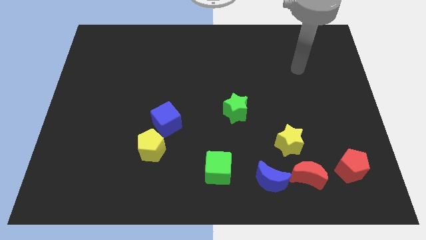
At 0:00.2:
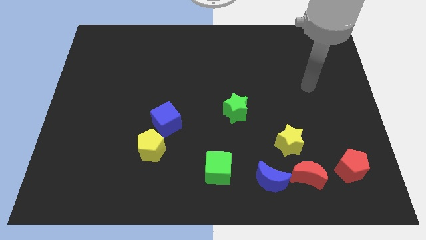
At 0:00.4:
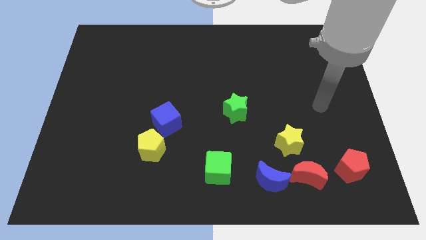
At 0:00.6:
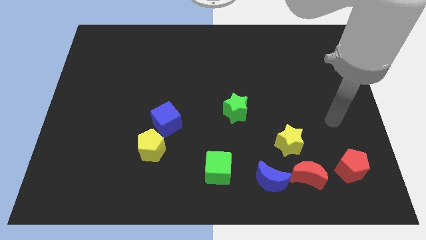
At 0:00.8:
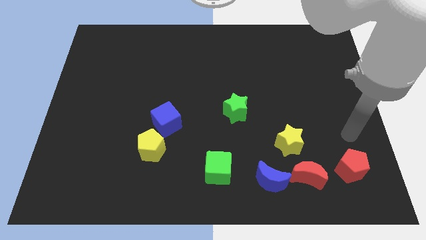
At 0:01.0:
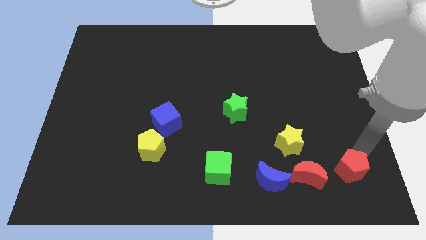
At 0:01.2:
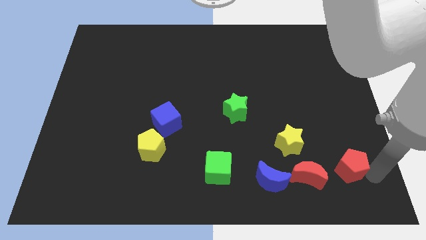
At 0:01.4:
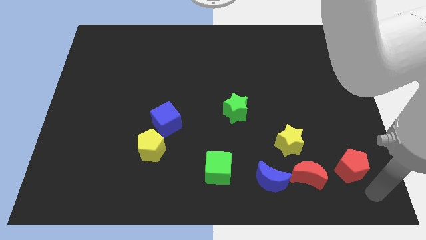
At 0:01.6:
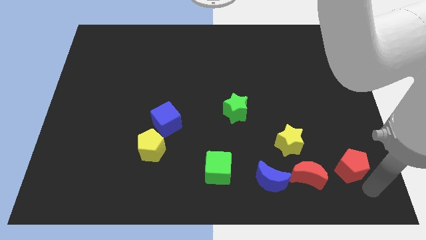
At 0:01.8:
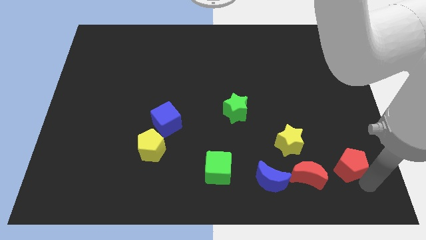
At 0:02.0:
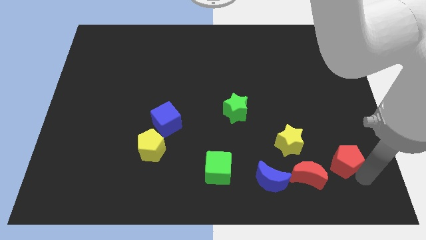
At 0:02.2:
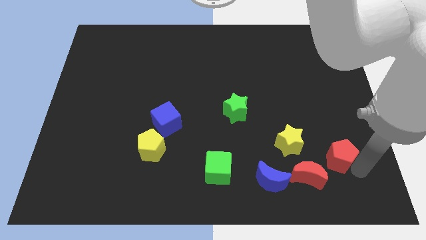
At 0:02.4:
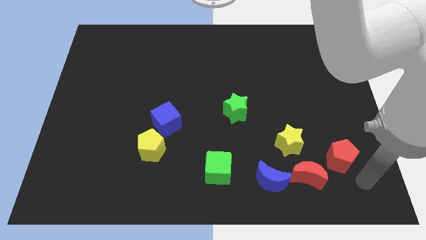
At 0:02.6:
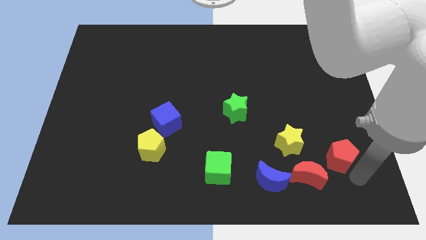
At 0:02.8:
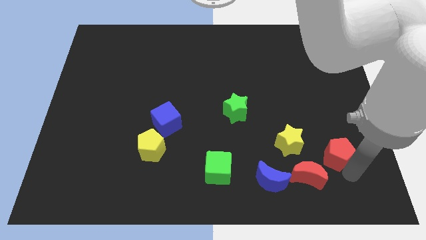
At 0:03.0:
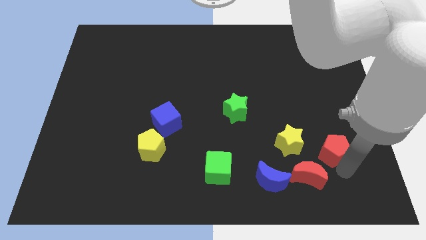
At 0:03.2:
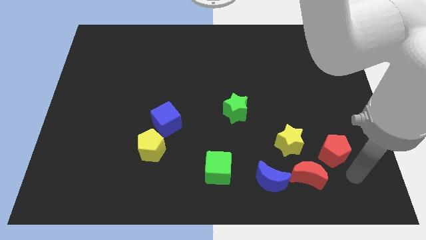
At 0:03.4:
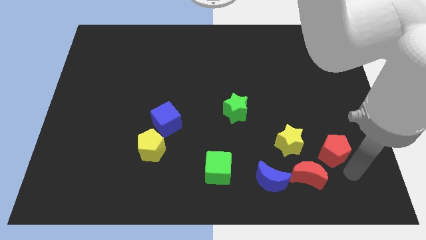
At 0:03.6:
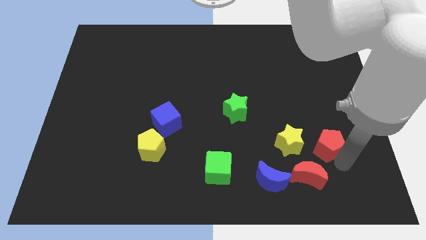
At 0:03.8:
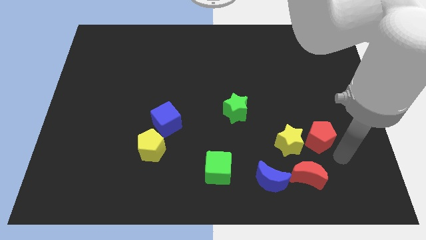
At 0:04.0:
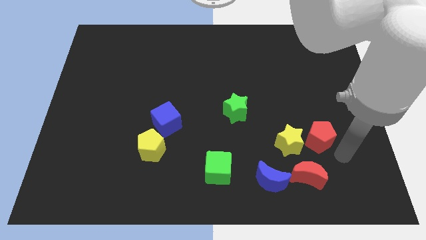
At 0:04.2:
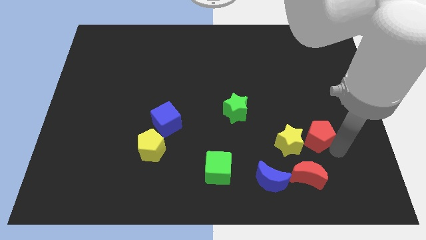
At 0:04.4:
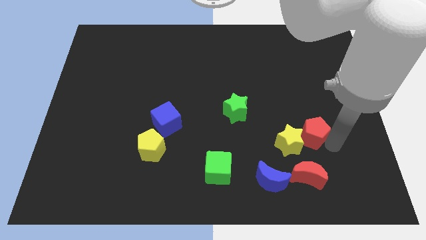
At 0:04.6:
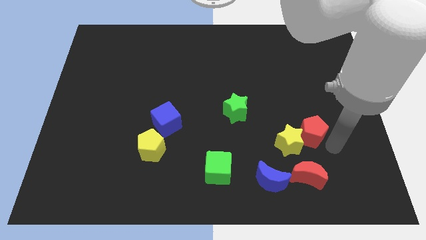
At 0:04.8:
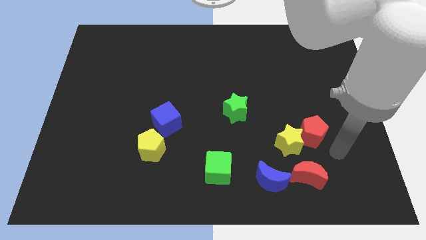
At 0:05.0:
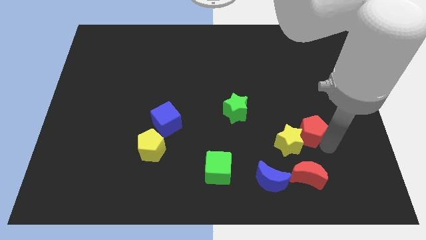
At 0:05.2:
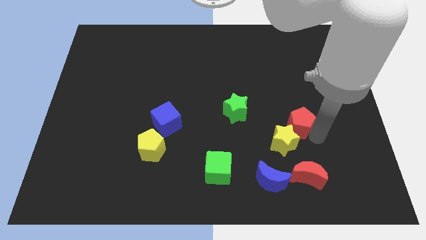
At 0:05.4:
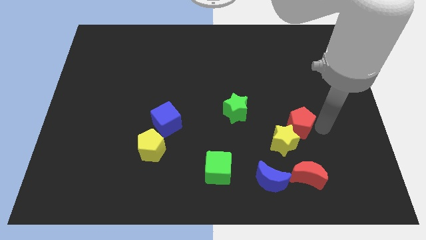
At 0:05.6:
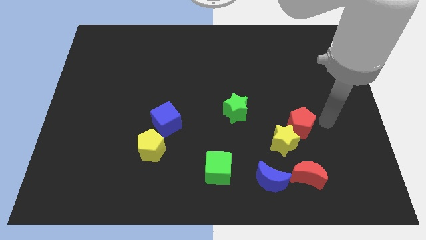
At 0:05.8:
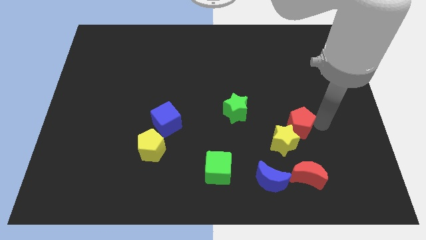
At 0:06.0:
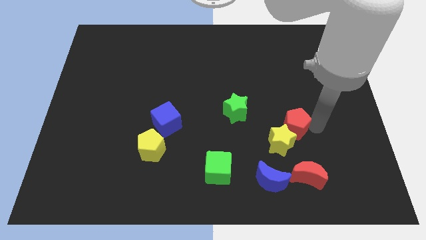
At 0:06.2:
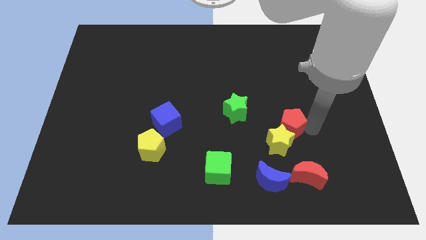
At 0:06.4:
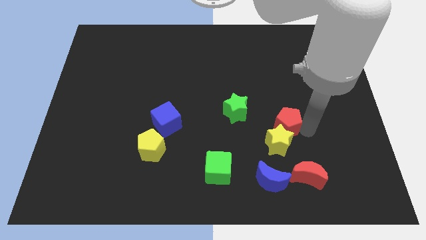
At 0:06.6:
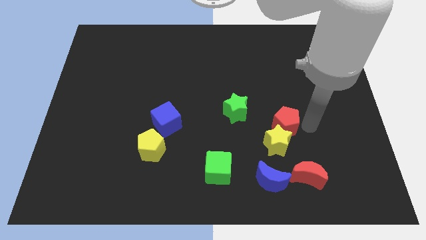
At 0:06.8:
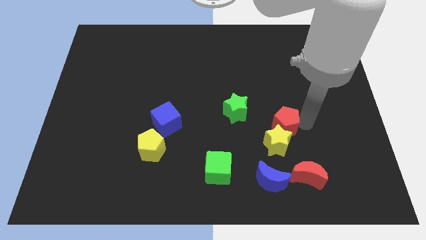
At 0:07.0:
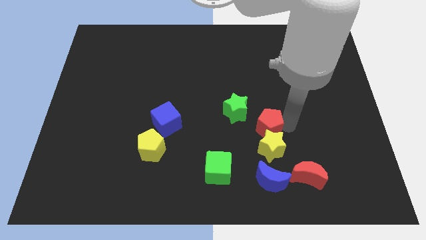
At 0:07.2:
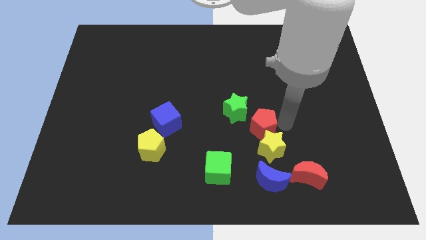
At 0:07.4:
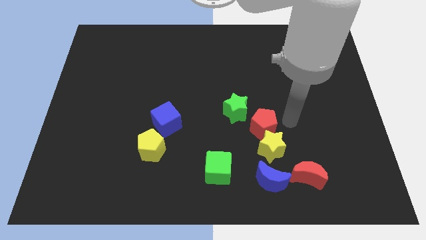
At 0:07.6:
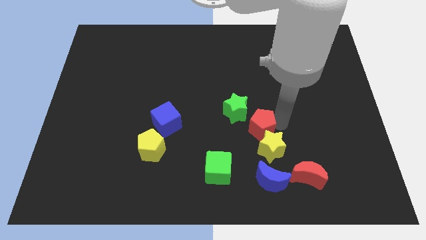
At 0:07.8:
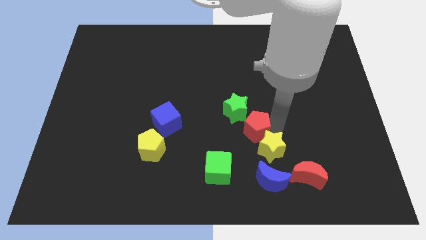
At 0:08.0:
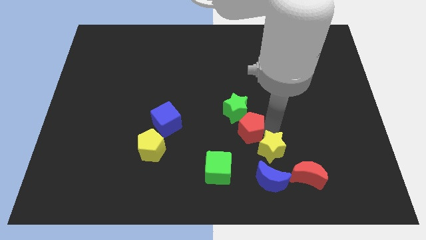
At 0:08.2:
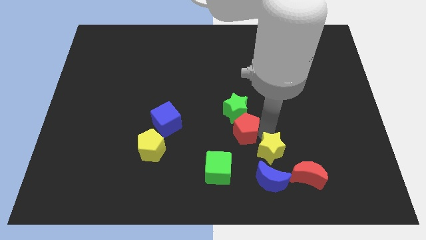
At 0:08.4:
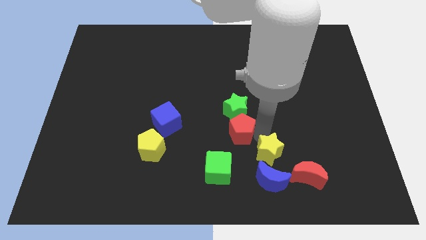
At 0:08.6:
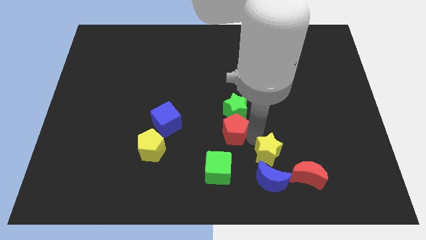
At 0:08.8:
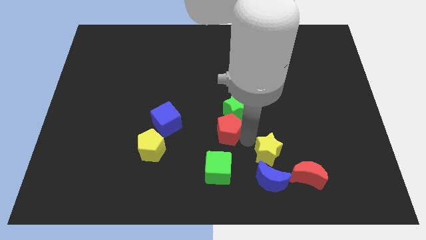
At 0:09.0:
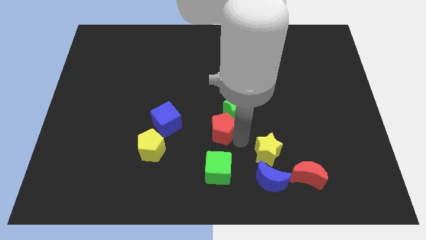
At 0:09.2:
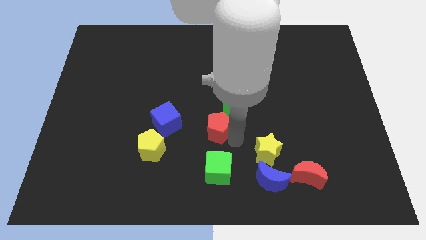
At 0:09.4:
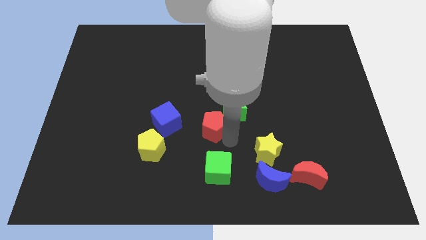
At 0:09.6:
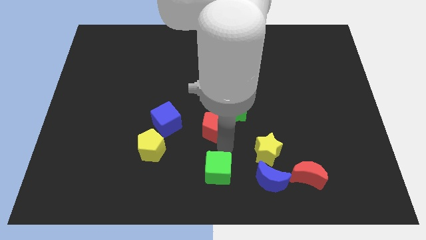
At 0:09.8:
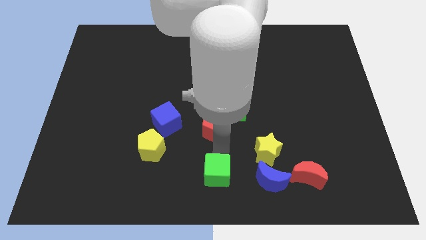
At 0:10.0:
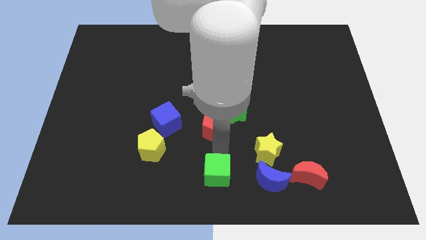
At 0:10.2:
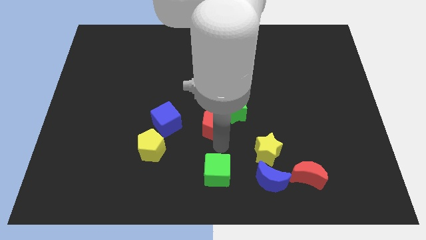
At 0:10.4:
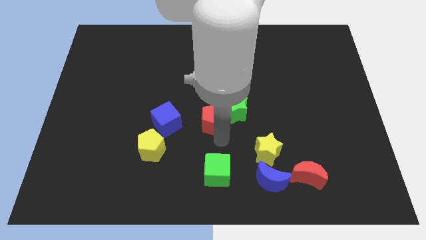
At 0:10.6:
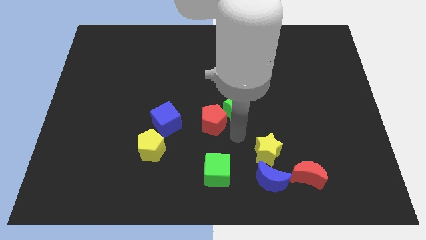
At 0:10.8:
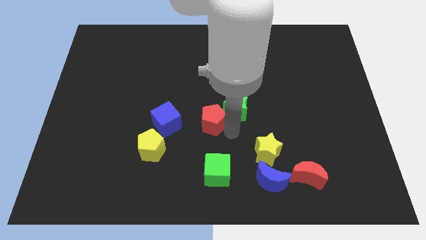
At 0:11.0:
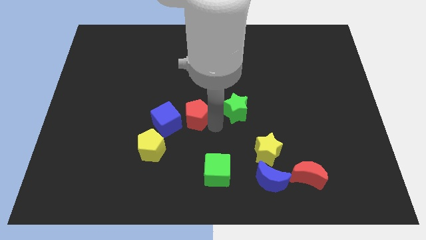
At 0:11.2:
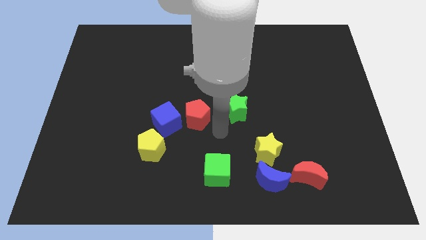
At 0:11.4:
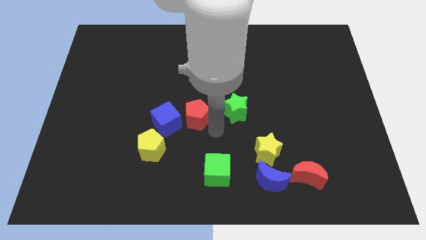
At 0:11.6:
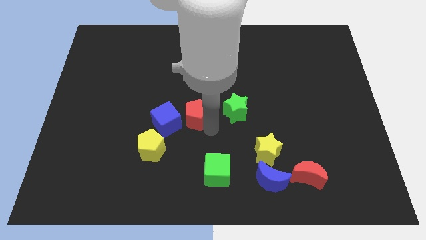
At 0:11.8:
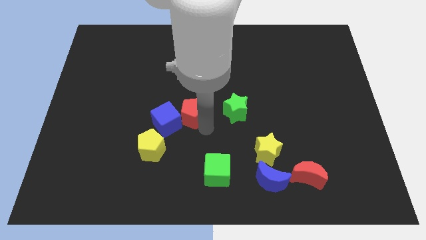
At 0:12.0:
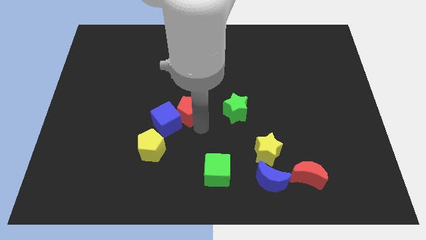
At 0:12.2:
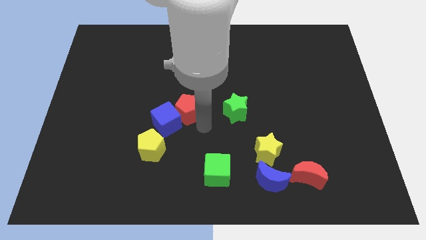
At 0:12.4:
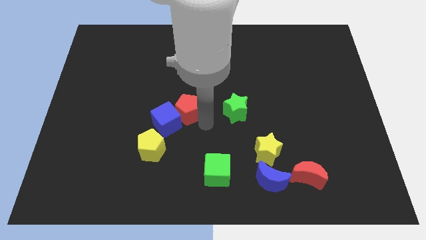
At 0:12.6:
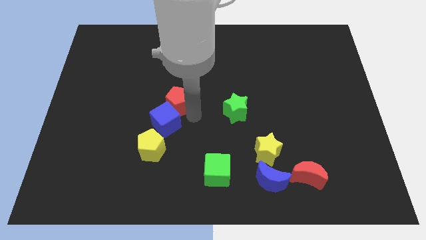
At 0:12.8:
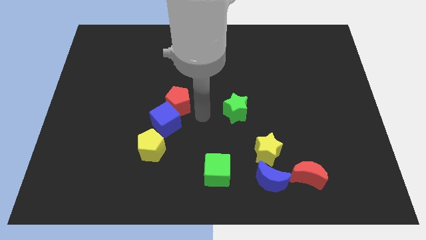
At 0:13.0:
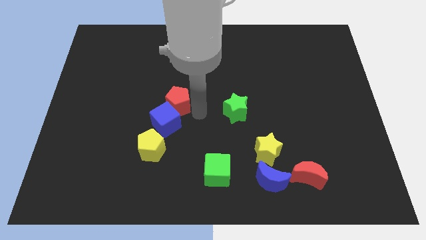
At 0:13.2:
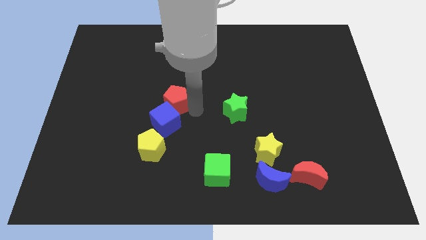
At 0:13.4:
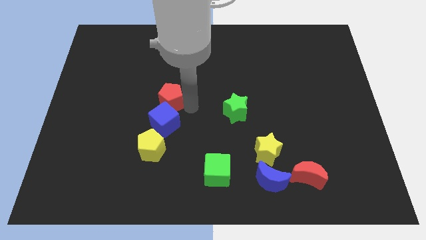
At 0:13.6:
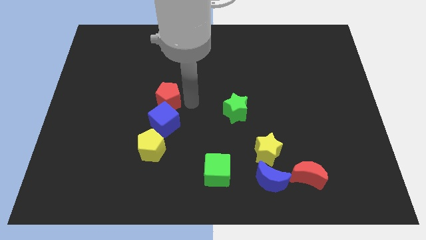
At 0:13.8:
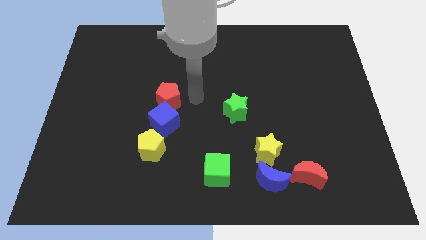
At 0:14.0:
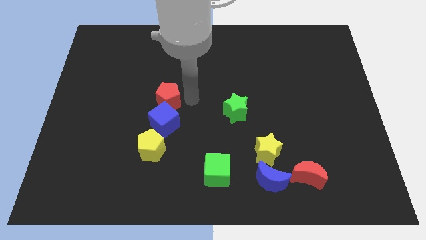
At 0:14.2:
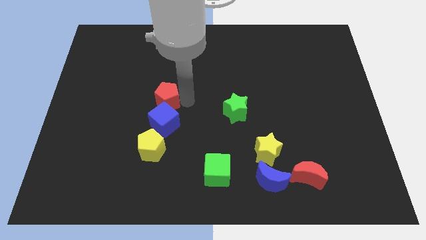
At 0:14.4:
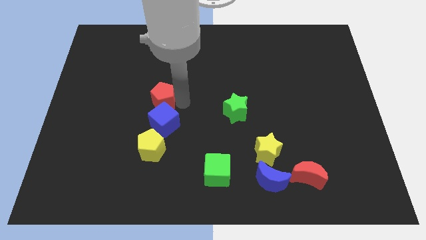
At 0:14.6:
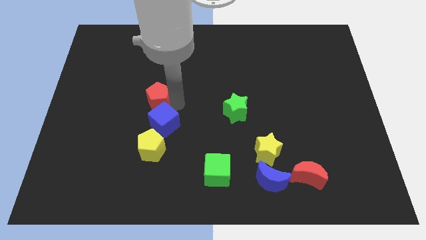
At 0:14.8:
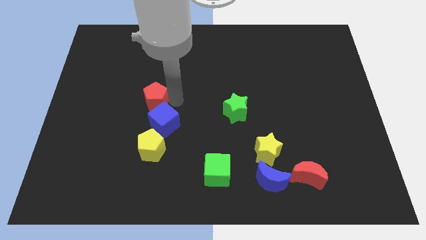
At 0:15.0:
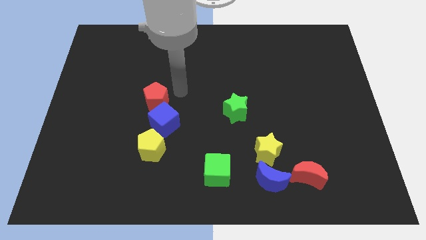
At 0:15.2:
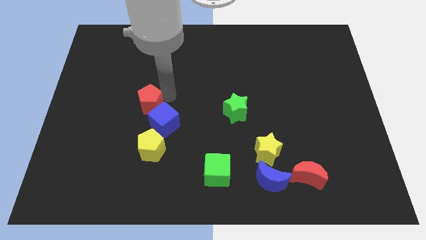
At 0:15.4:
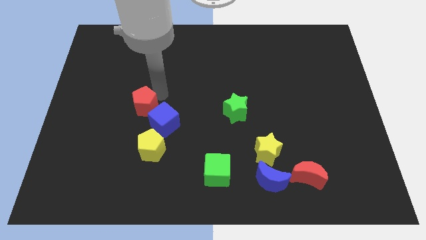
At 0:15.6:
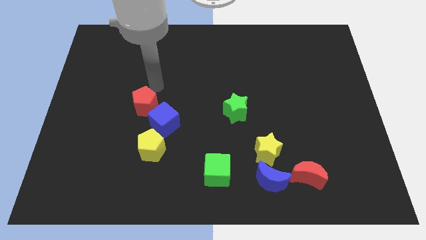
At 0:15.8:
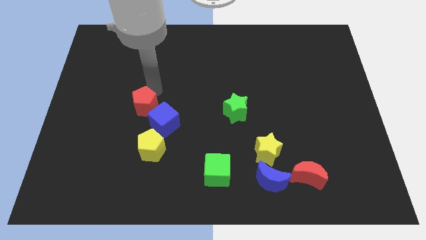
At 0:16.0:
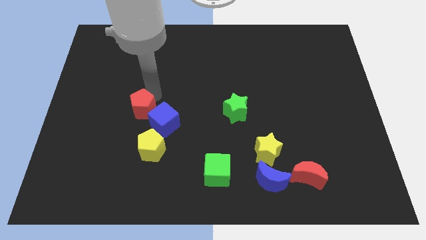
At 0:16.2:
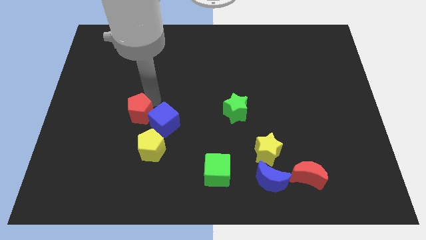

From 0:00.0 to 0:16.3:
slide the red pentagon to the top left of the yellow pentagon
